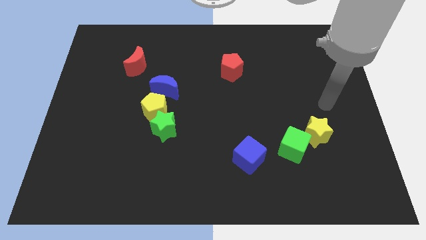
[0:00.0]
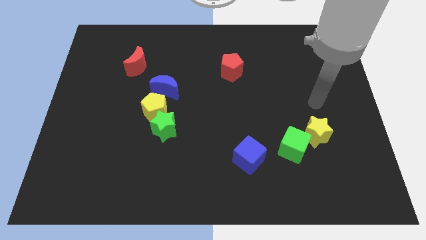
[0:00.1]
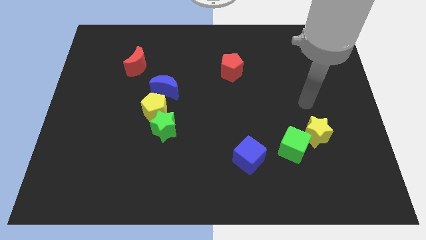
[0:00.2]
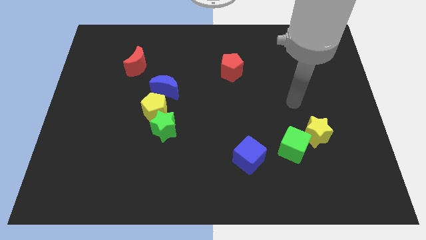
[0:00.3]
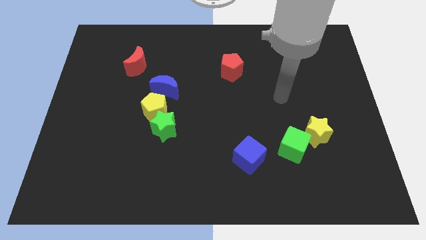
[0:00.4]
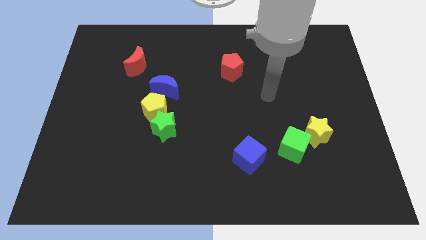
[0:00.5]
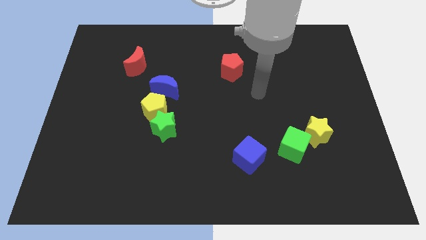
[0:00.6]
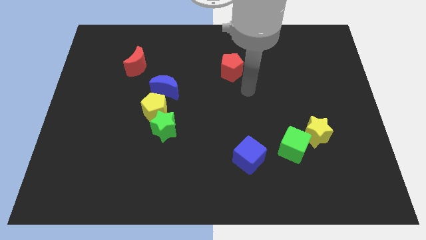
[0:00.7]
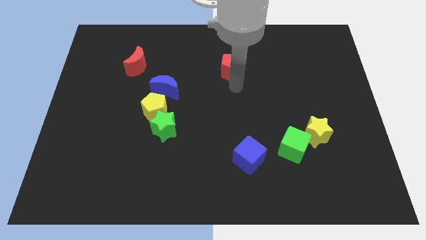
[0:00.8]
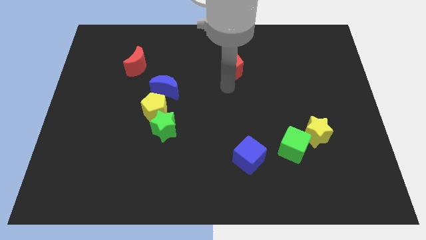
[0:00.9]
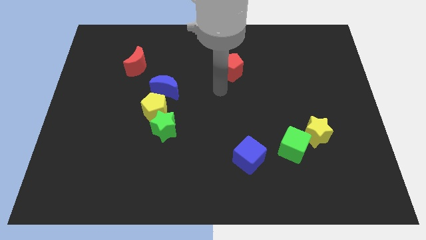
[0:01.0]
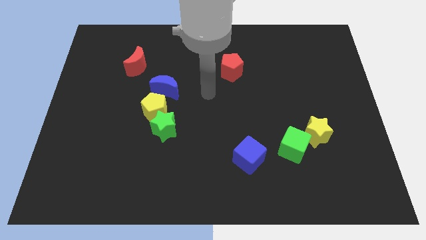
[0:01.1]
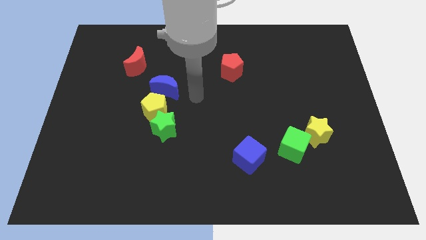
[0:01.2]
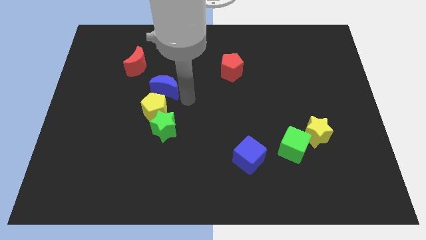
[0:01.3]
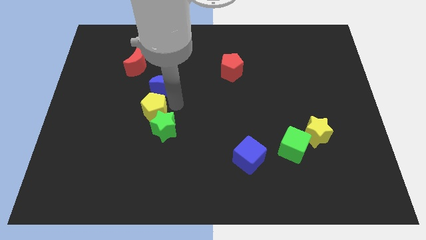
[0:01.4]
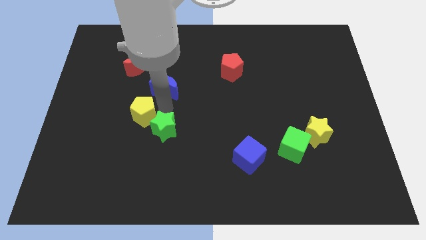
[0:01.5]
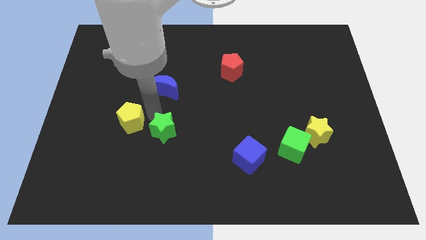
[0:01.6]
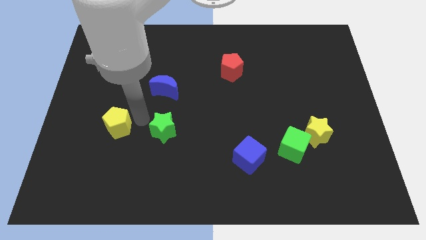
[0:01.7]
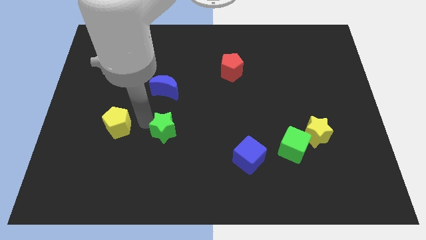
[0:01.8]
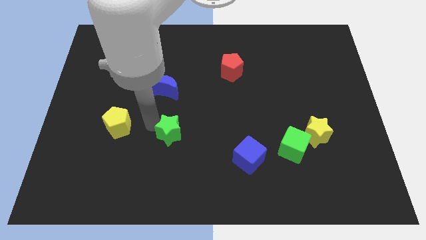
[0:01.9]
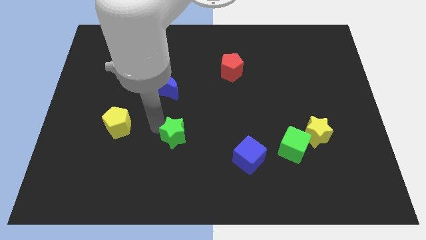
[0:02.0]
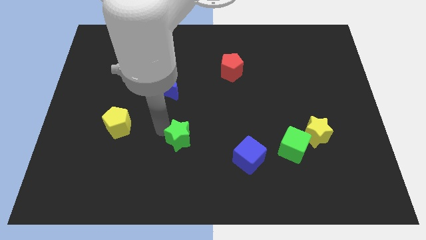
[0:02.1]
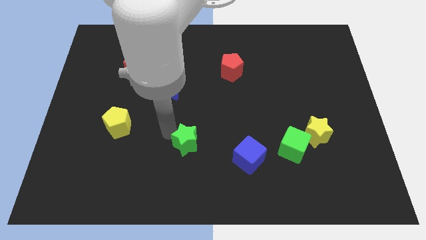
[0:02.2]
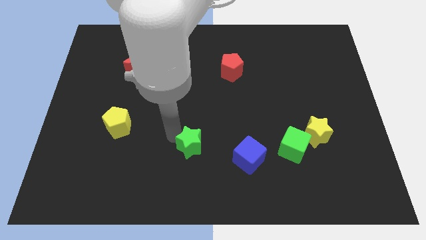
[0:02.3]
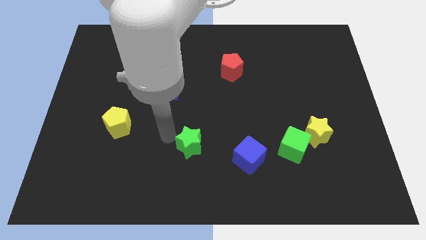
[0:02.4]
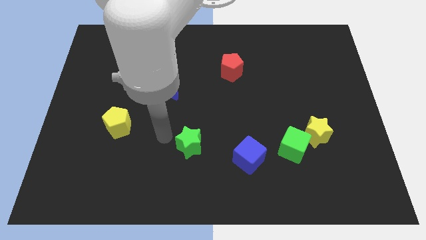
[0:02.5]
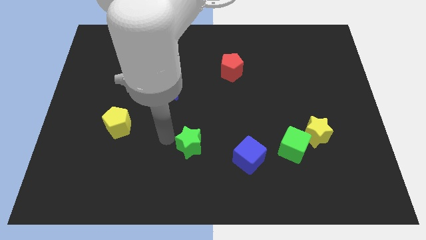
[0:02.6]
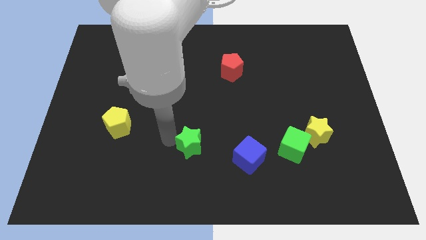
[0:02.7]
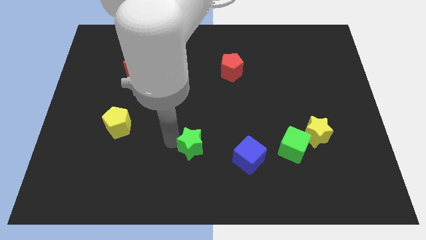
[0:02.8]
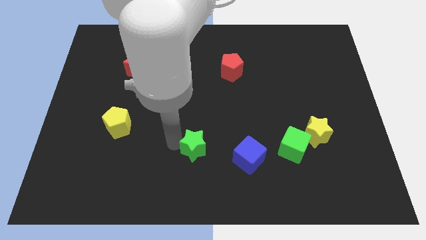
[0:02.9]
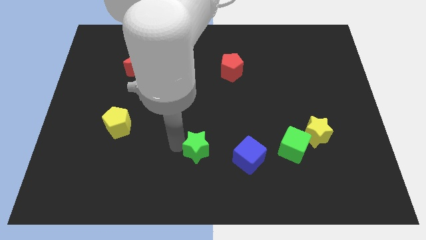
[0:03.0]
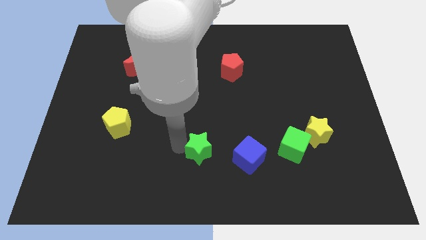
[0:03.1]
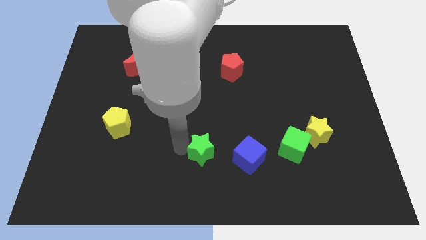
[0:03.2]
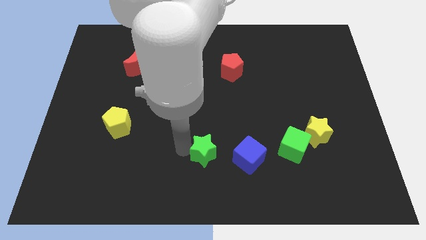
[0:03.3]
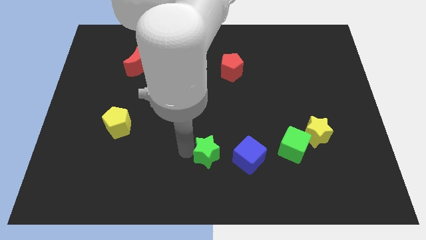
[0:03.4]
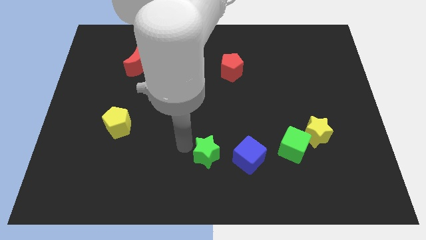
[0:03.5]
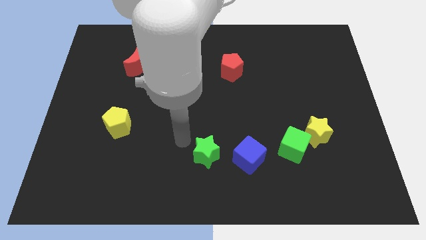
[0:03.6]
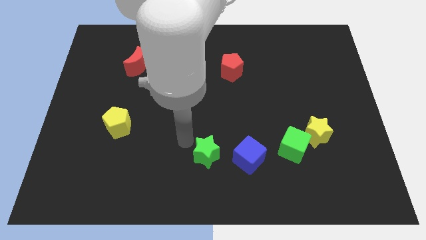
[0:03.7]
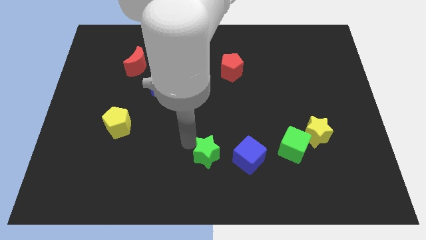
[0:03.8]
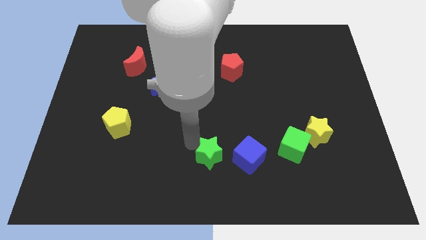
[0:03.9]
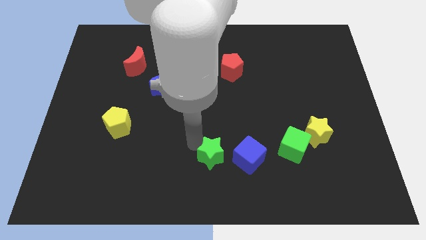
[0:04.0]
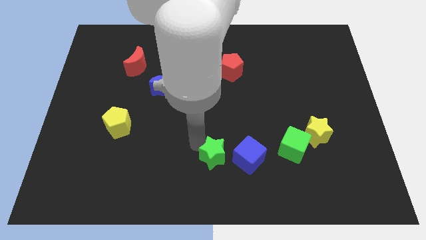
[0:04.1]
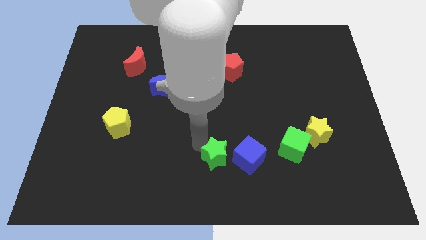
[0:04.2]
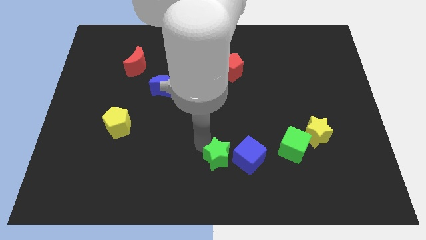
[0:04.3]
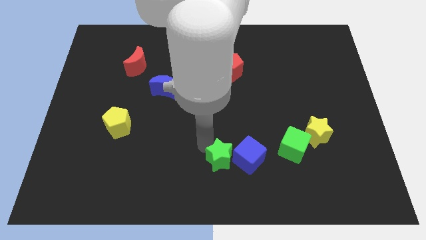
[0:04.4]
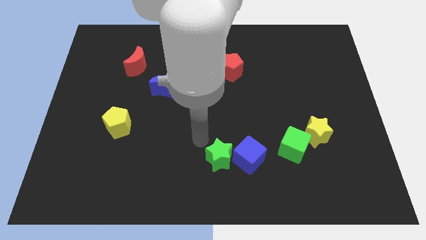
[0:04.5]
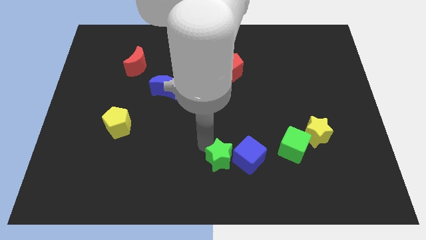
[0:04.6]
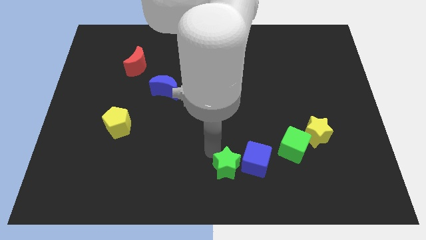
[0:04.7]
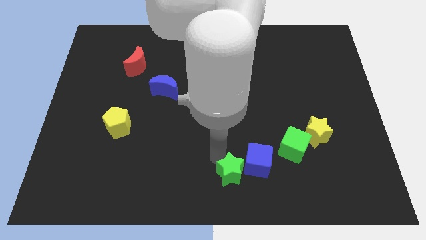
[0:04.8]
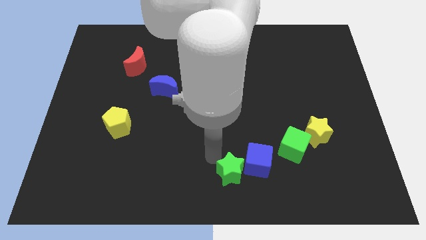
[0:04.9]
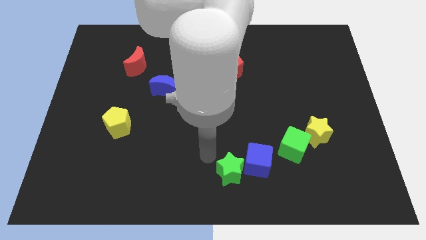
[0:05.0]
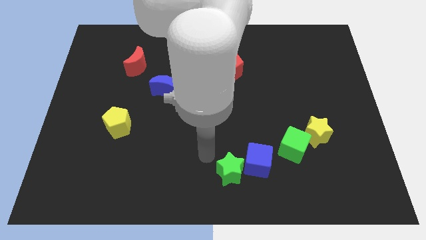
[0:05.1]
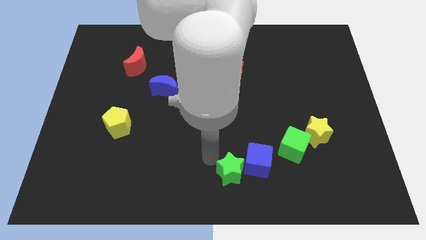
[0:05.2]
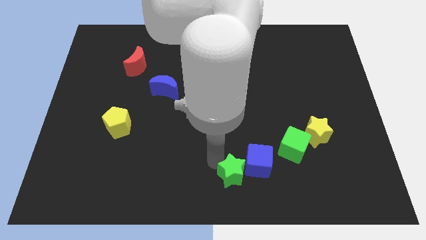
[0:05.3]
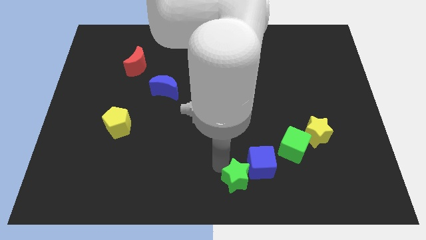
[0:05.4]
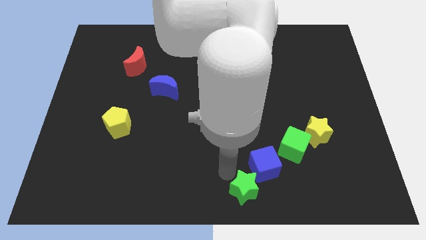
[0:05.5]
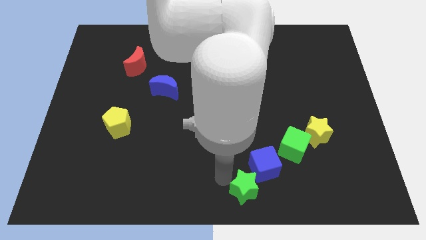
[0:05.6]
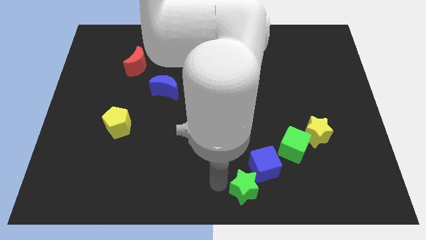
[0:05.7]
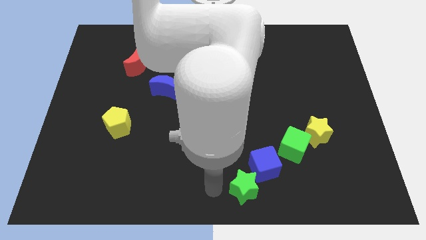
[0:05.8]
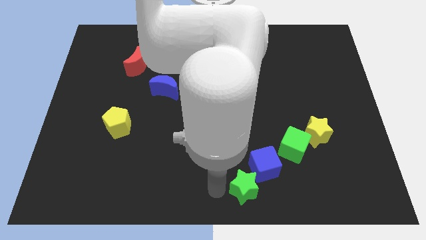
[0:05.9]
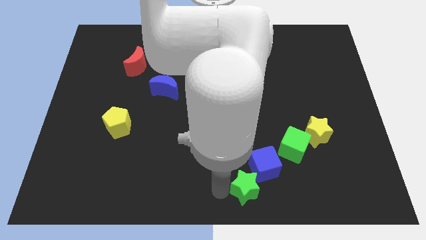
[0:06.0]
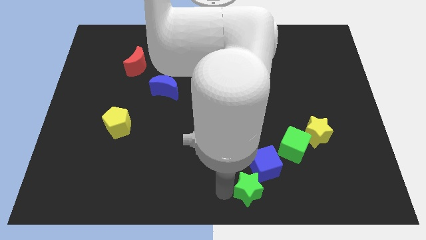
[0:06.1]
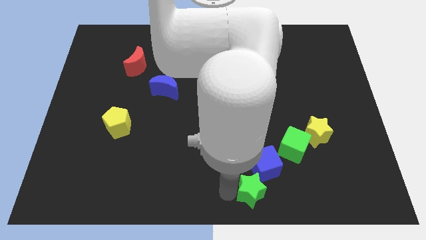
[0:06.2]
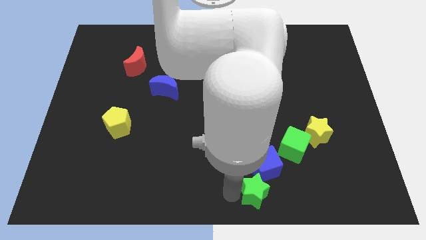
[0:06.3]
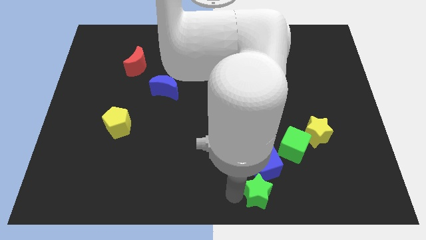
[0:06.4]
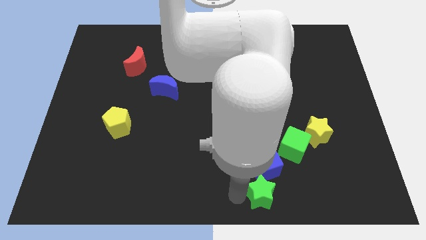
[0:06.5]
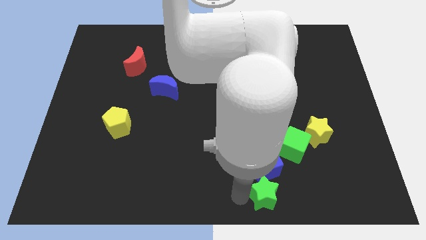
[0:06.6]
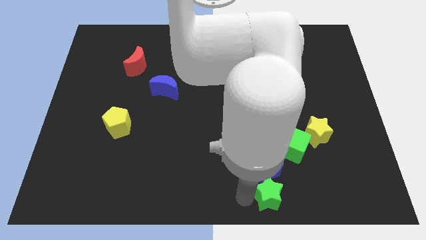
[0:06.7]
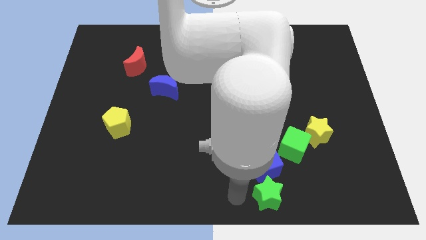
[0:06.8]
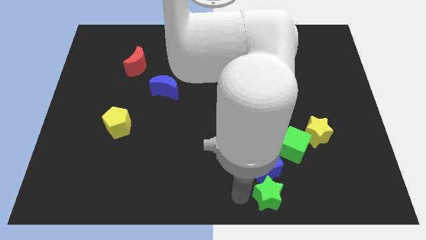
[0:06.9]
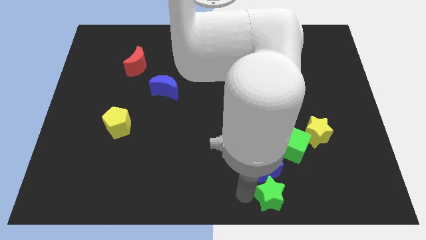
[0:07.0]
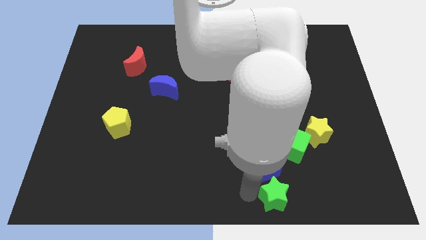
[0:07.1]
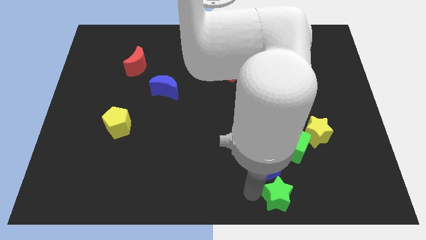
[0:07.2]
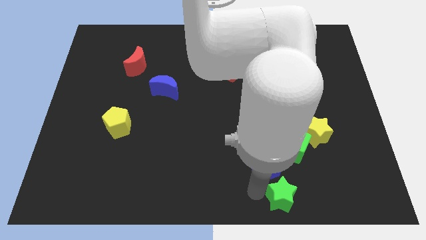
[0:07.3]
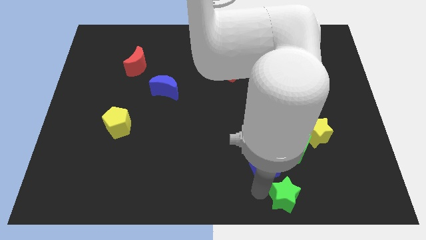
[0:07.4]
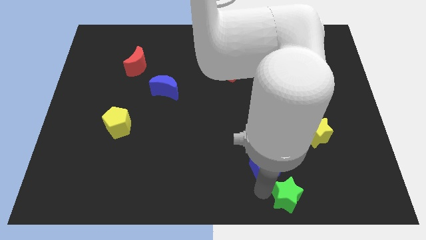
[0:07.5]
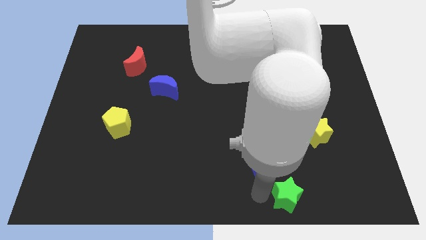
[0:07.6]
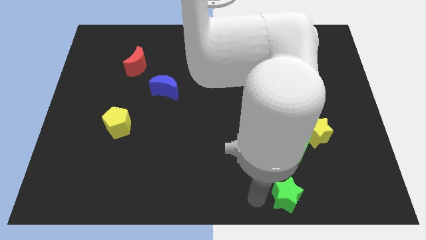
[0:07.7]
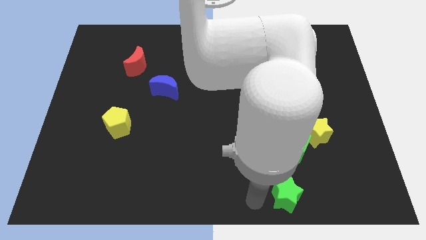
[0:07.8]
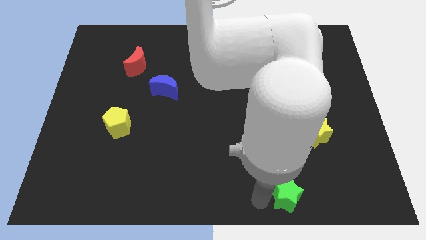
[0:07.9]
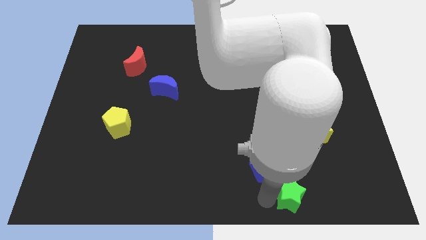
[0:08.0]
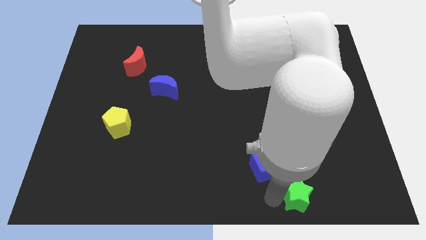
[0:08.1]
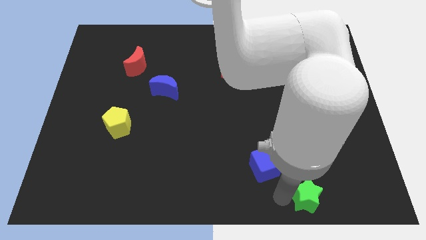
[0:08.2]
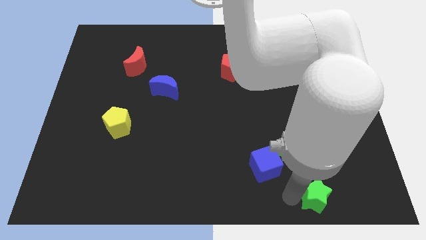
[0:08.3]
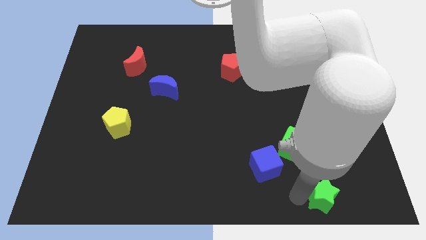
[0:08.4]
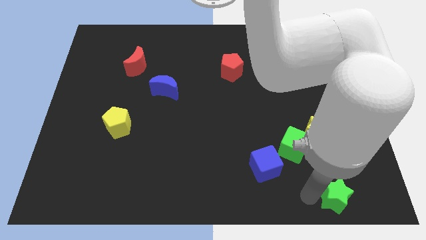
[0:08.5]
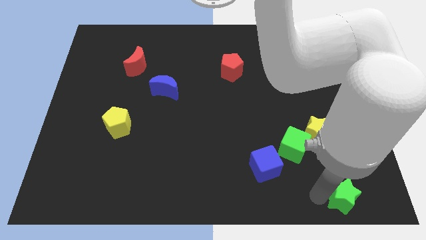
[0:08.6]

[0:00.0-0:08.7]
move the green star to the bottom right corner
